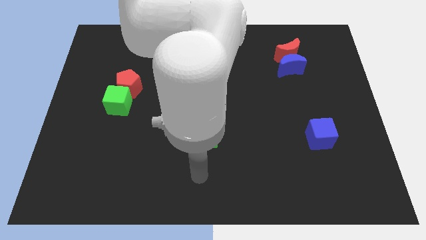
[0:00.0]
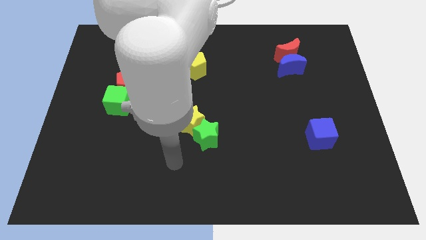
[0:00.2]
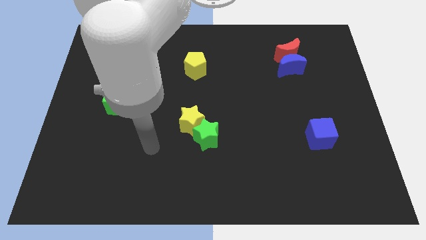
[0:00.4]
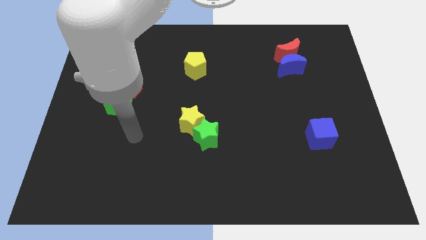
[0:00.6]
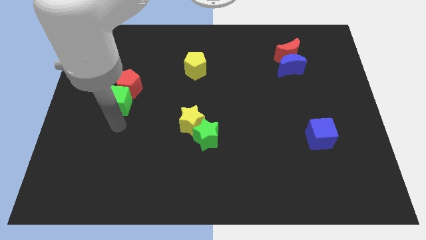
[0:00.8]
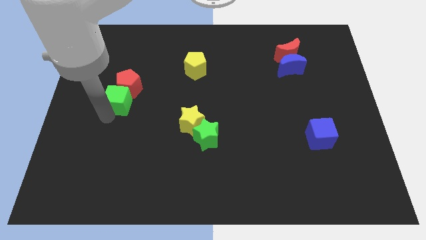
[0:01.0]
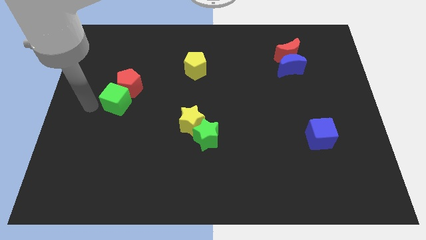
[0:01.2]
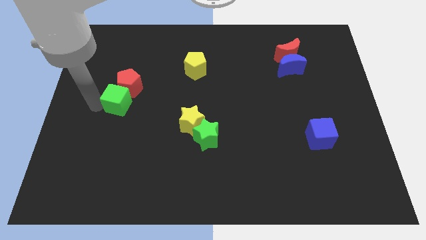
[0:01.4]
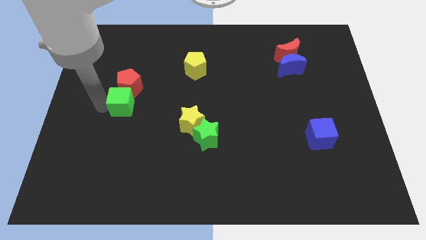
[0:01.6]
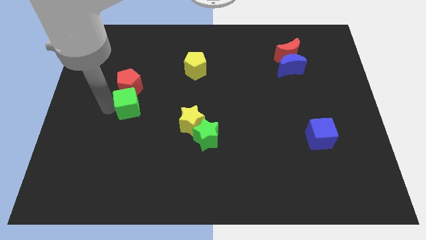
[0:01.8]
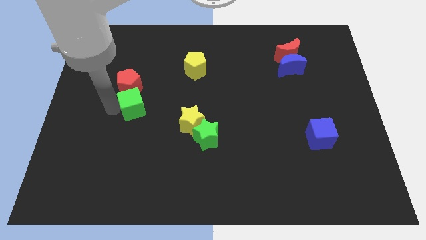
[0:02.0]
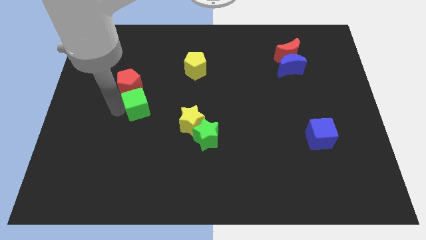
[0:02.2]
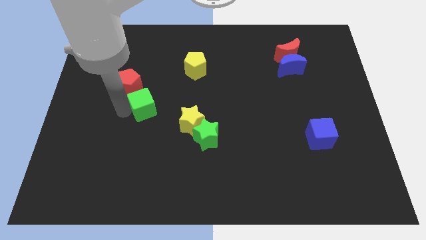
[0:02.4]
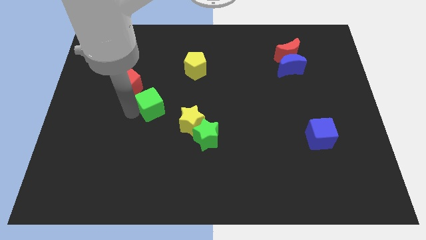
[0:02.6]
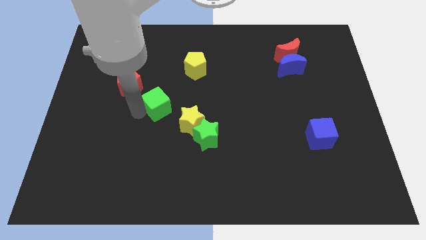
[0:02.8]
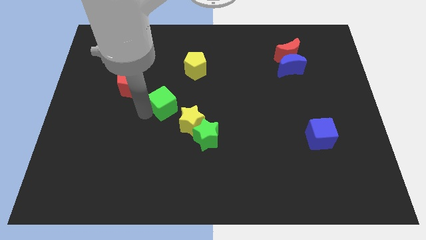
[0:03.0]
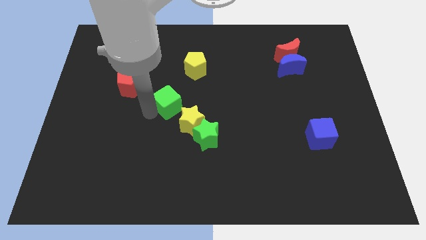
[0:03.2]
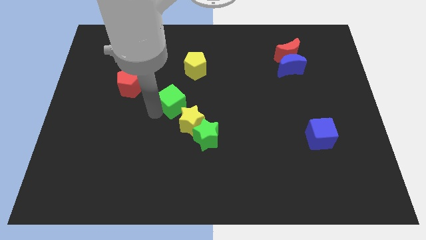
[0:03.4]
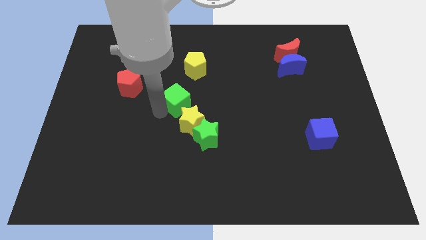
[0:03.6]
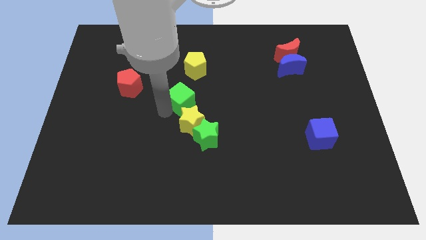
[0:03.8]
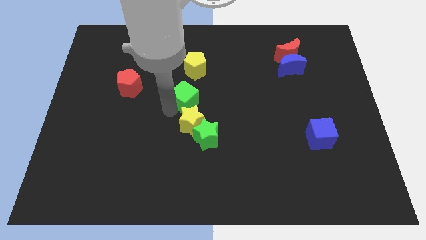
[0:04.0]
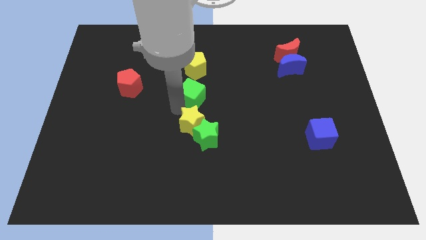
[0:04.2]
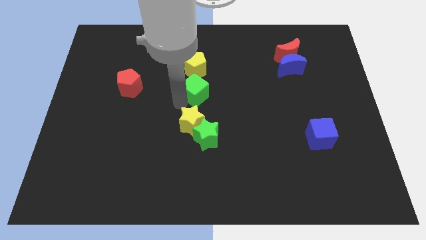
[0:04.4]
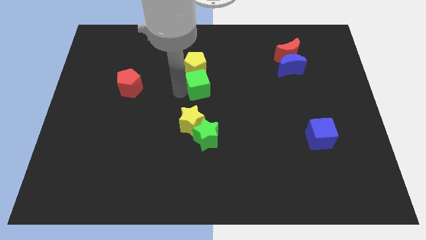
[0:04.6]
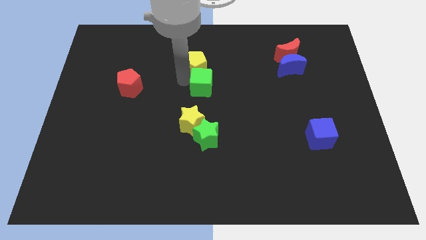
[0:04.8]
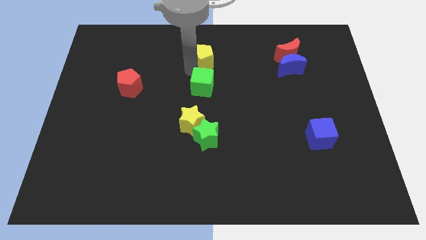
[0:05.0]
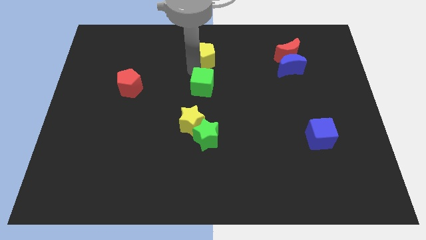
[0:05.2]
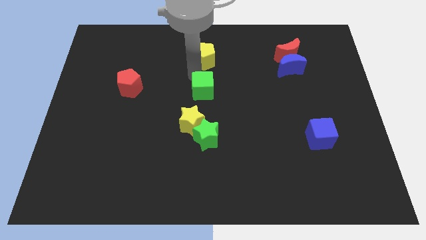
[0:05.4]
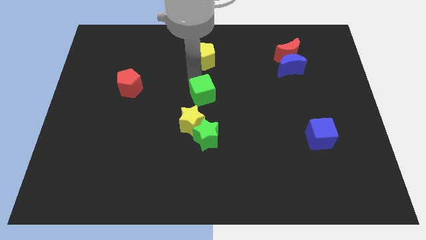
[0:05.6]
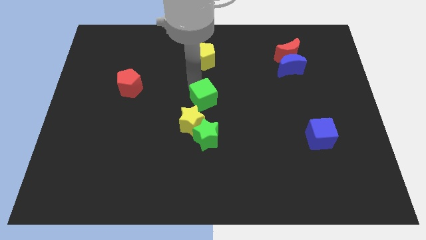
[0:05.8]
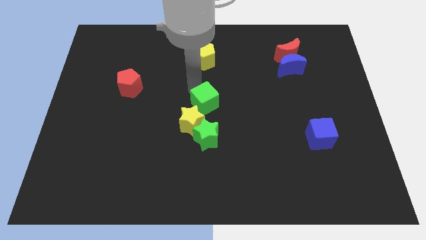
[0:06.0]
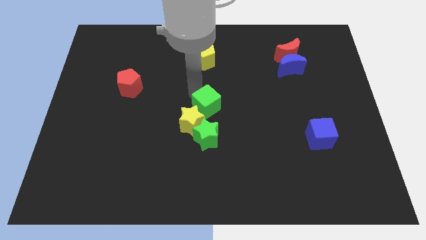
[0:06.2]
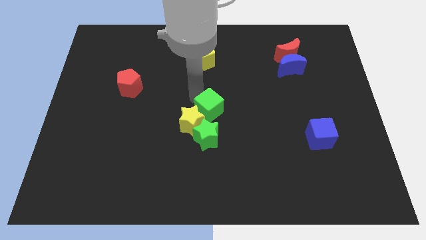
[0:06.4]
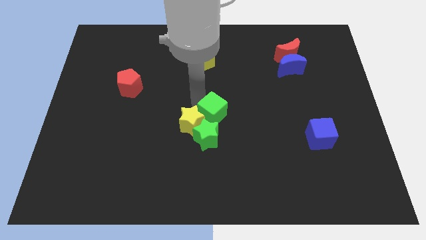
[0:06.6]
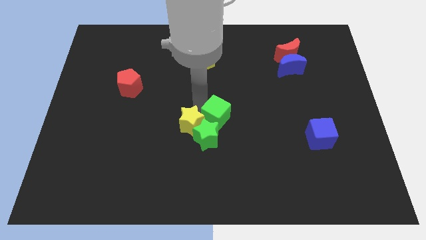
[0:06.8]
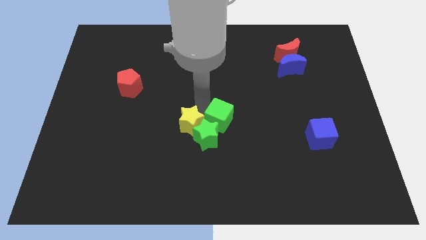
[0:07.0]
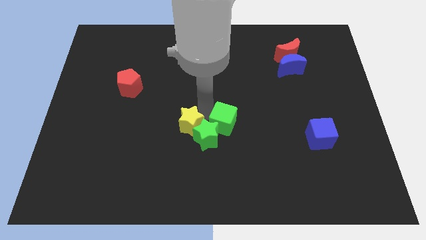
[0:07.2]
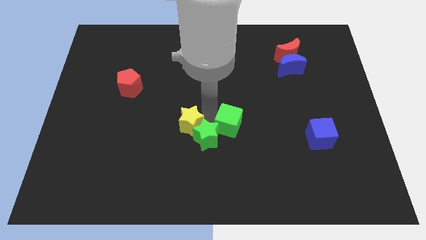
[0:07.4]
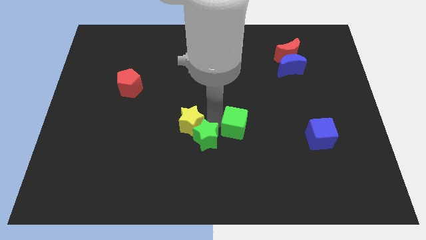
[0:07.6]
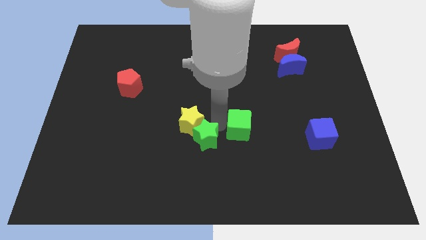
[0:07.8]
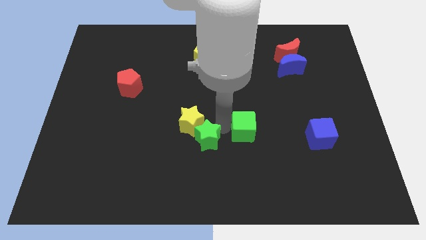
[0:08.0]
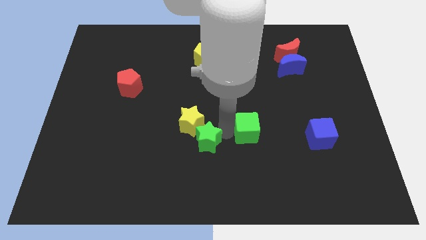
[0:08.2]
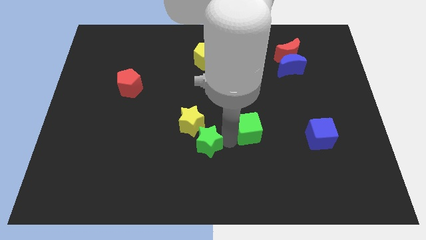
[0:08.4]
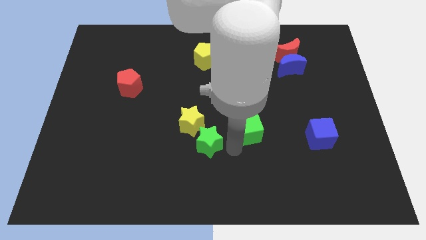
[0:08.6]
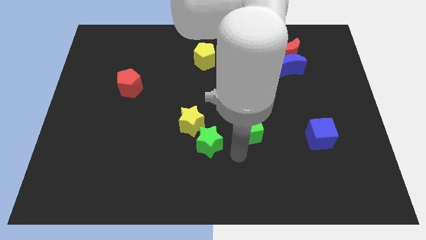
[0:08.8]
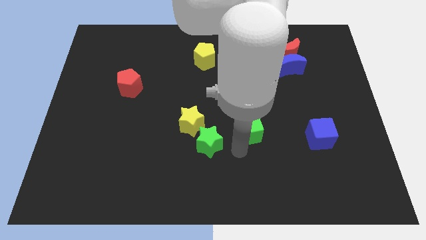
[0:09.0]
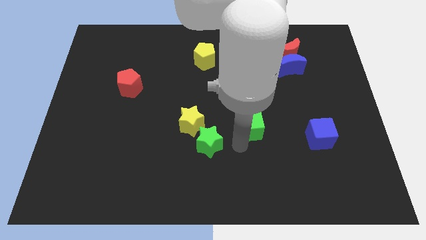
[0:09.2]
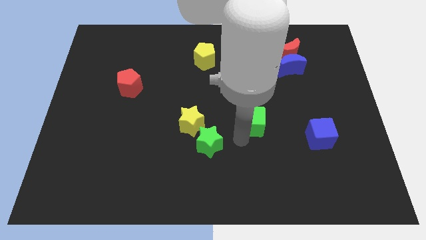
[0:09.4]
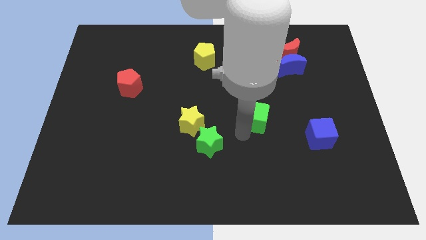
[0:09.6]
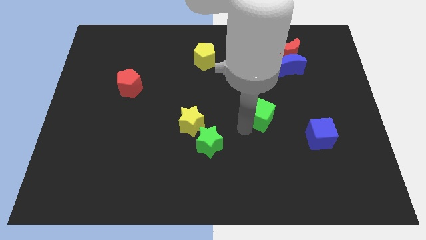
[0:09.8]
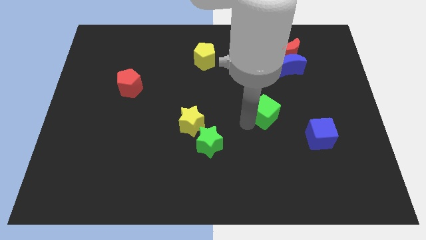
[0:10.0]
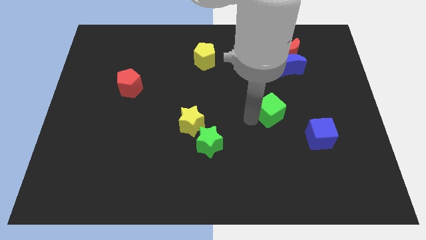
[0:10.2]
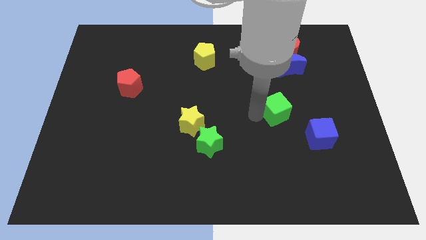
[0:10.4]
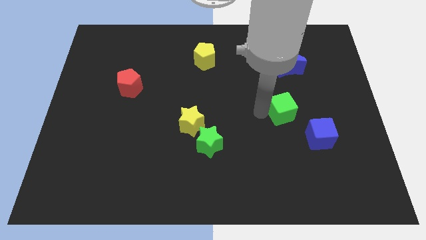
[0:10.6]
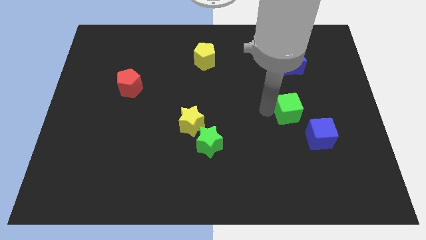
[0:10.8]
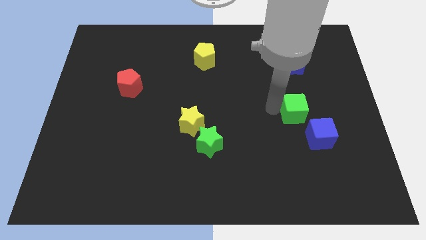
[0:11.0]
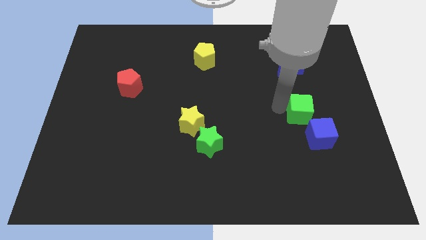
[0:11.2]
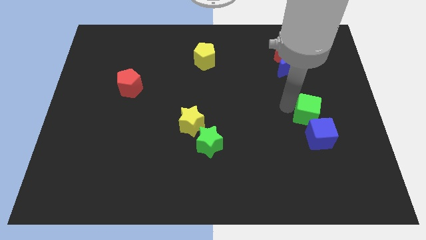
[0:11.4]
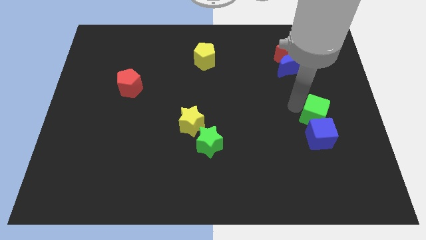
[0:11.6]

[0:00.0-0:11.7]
move the green cube to the blue cube

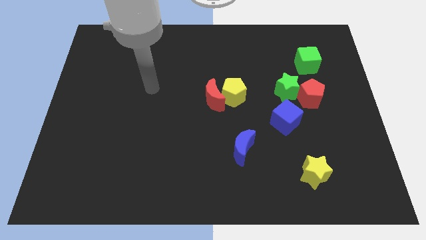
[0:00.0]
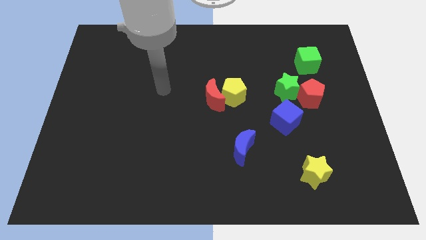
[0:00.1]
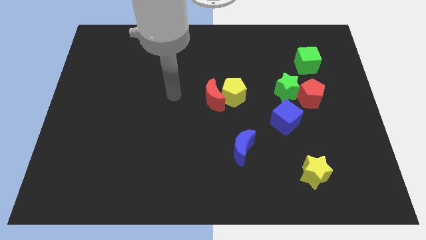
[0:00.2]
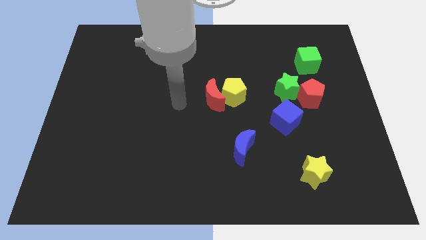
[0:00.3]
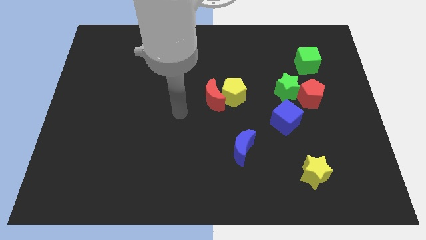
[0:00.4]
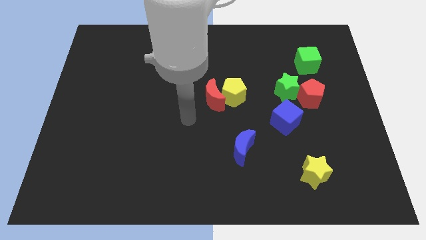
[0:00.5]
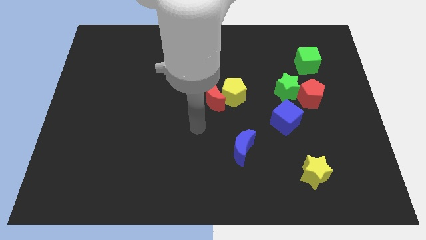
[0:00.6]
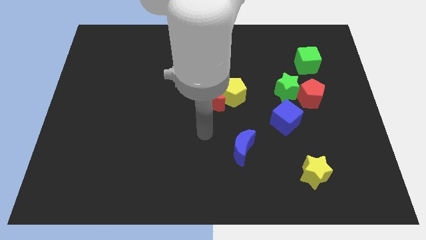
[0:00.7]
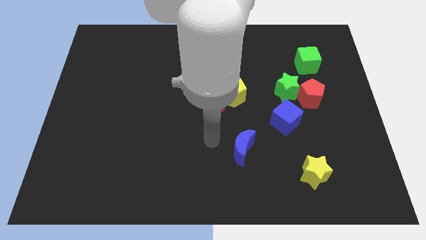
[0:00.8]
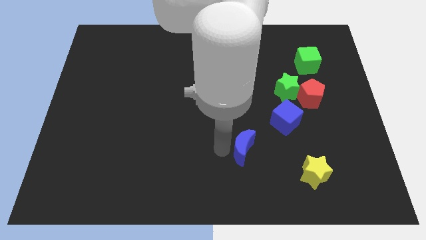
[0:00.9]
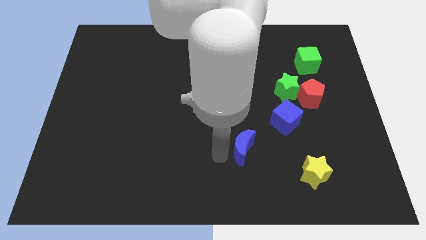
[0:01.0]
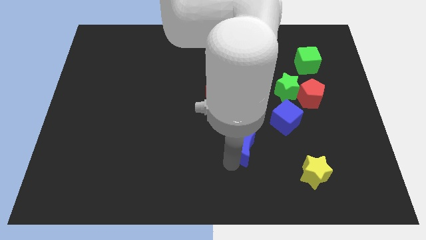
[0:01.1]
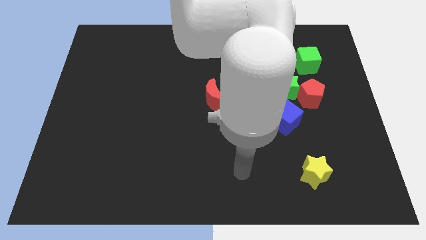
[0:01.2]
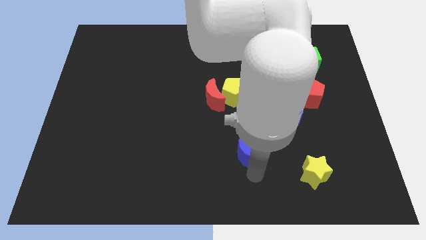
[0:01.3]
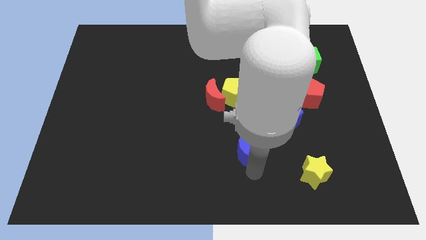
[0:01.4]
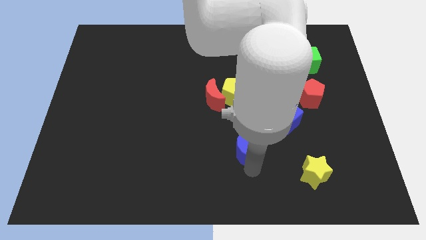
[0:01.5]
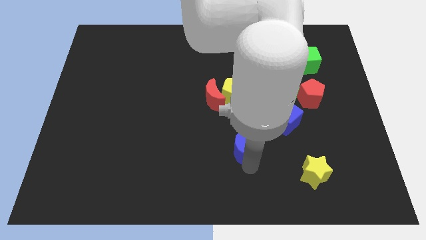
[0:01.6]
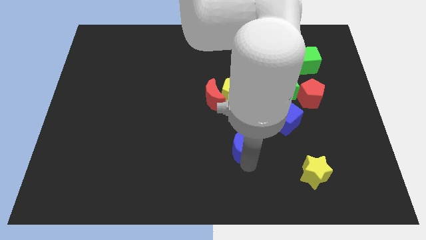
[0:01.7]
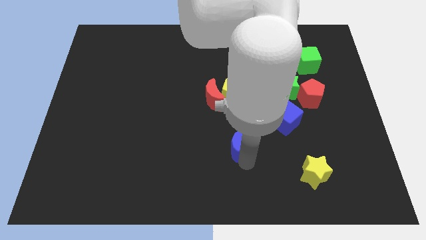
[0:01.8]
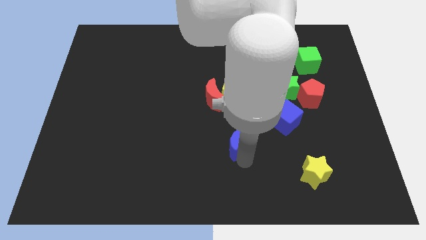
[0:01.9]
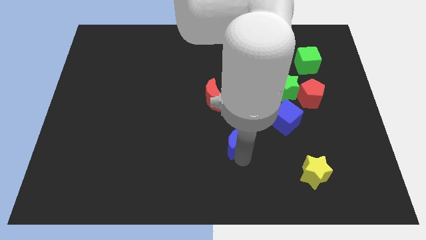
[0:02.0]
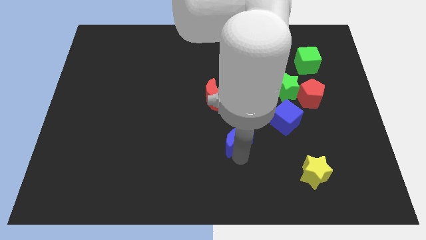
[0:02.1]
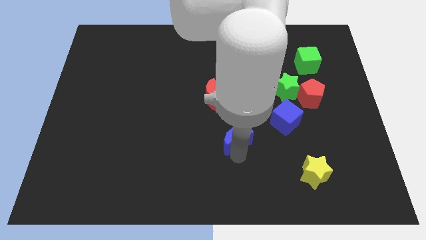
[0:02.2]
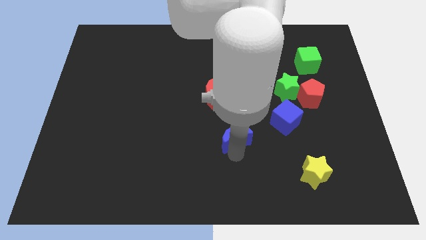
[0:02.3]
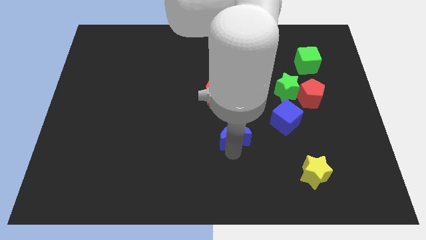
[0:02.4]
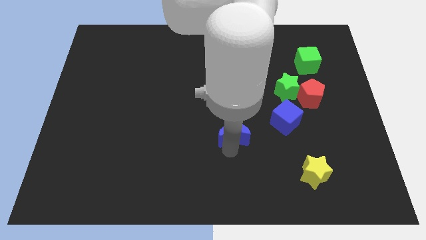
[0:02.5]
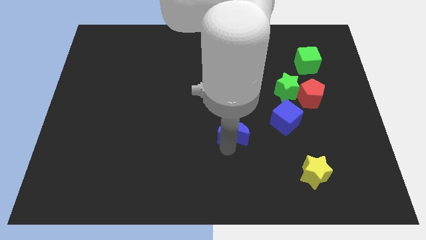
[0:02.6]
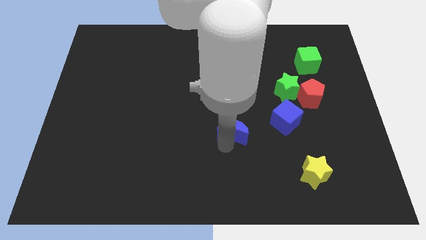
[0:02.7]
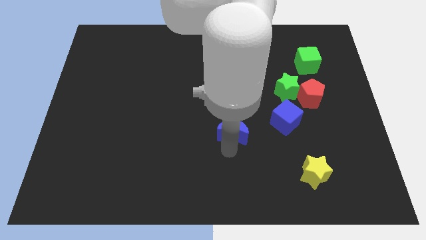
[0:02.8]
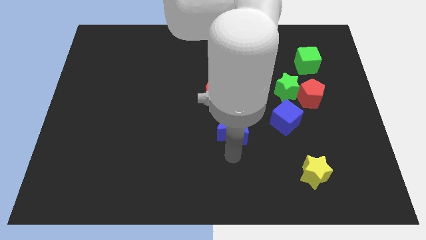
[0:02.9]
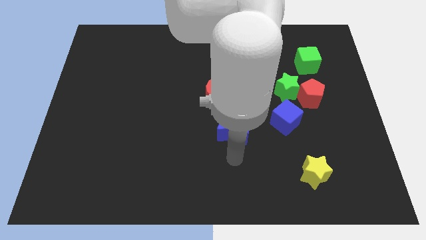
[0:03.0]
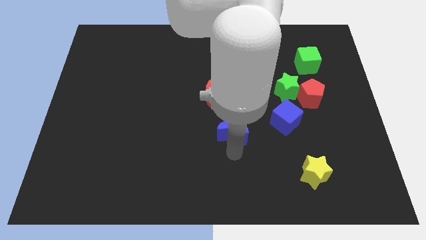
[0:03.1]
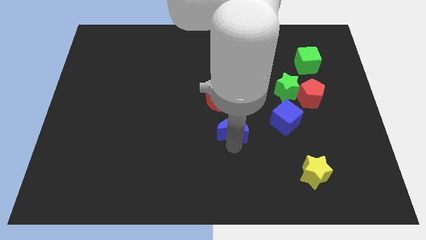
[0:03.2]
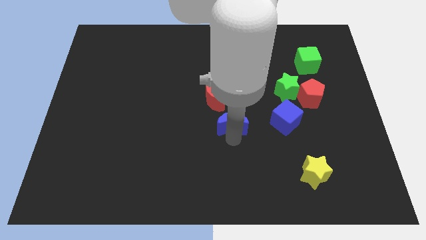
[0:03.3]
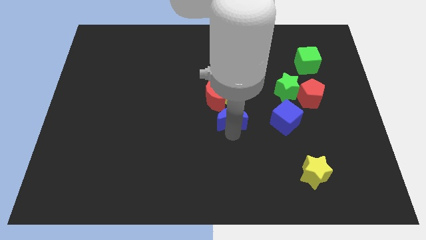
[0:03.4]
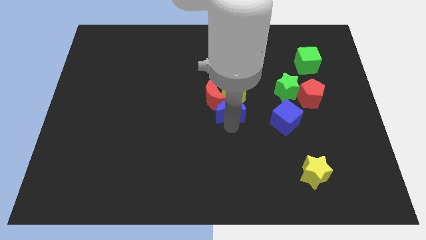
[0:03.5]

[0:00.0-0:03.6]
put the blue moon towards the yellow pentagon
